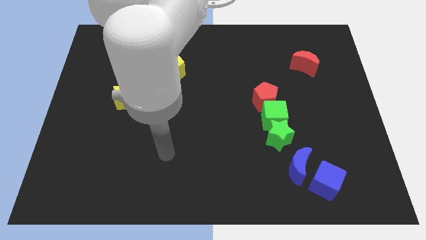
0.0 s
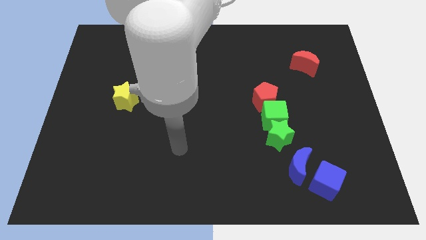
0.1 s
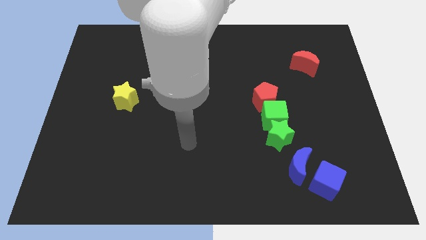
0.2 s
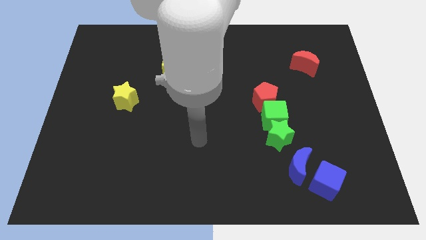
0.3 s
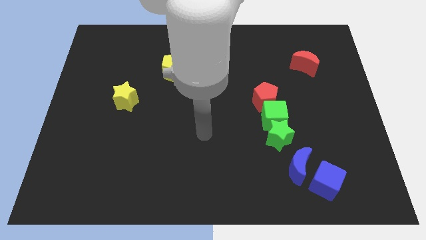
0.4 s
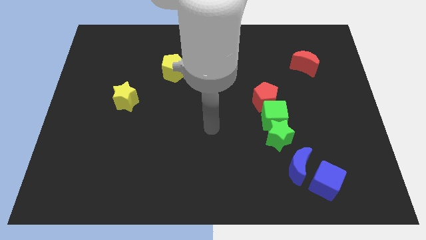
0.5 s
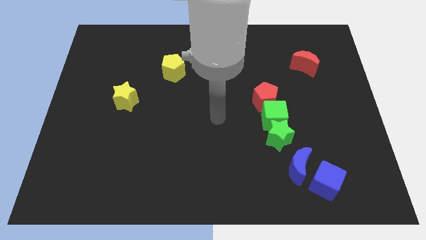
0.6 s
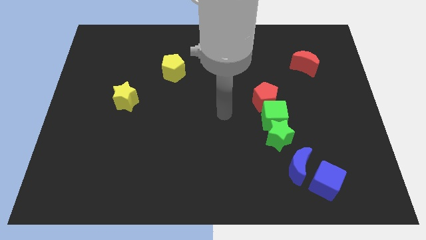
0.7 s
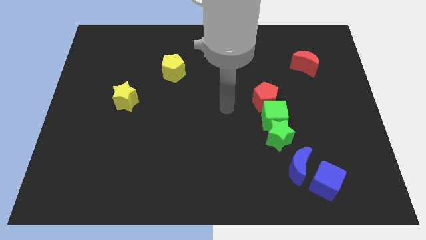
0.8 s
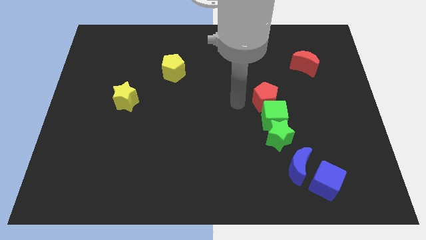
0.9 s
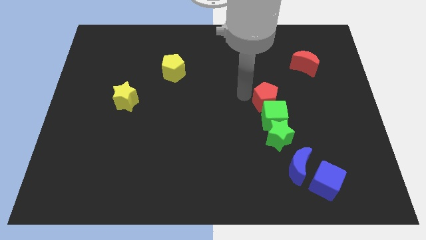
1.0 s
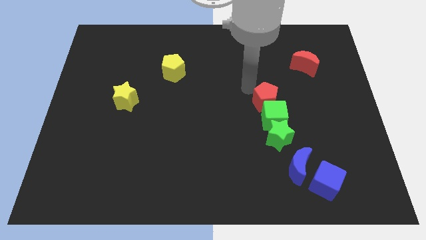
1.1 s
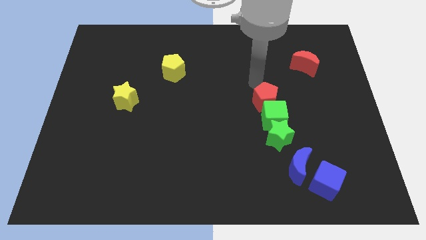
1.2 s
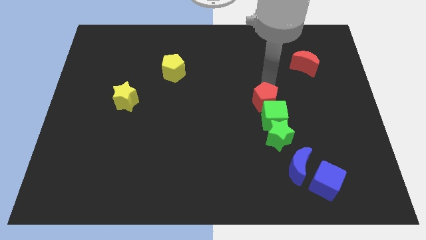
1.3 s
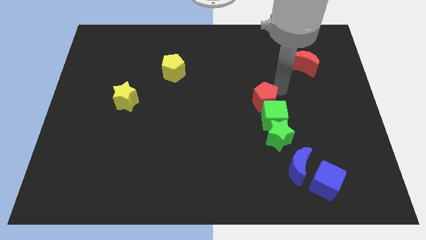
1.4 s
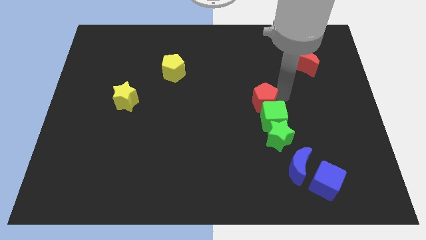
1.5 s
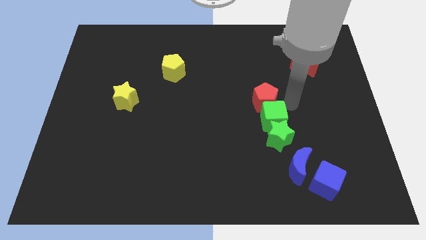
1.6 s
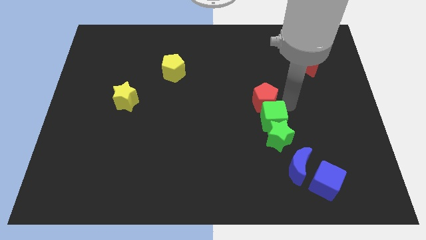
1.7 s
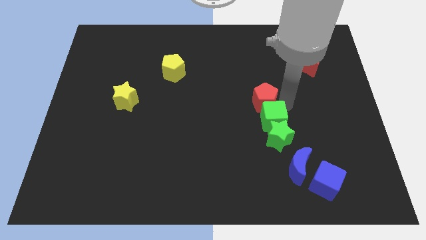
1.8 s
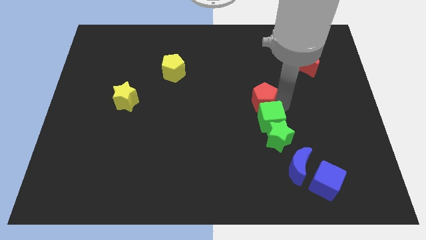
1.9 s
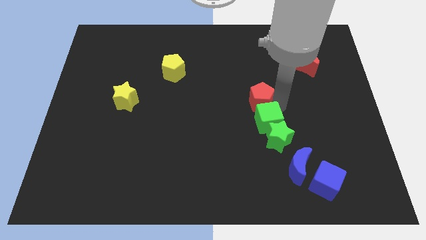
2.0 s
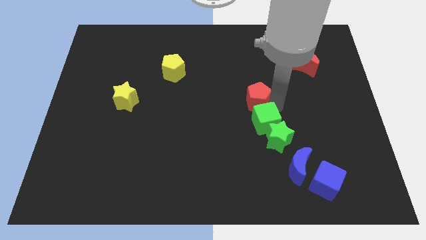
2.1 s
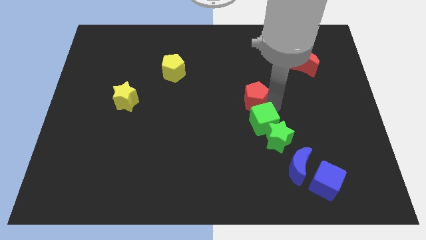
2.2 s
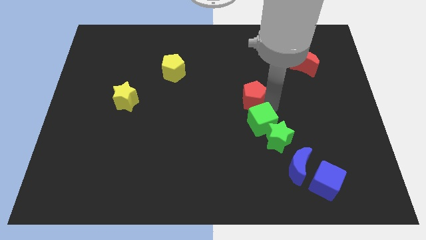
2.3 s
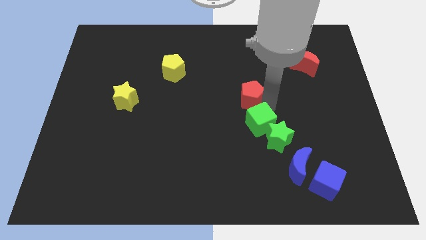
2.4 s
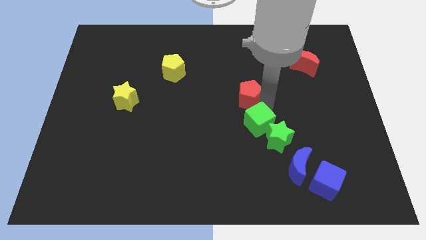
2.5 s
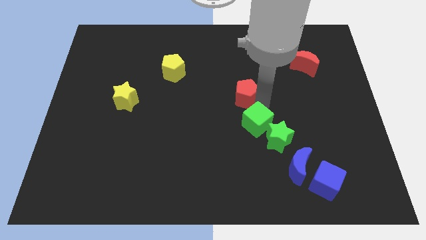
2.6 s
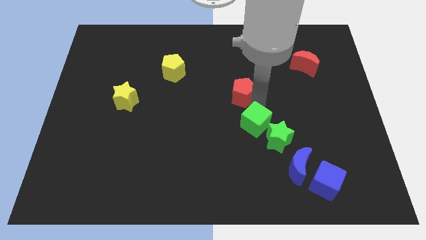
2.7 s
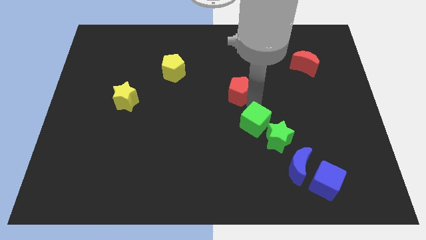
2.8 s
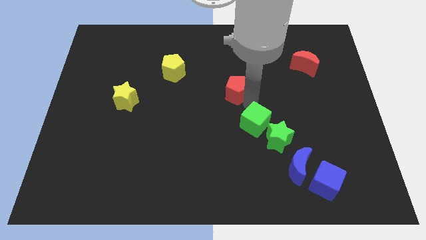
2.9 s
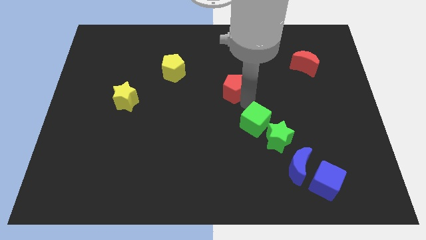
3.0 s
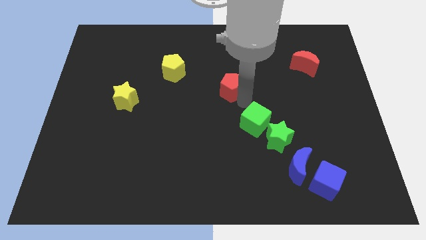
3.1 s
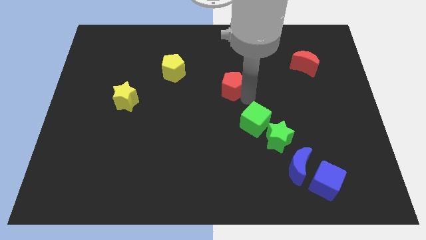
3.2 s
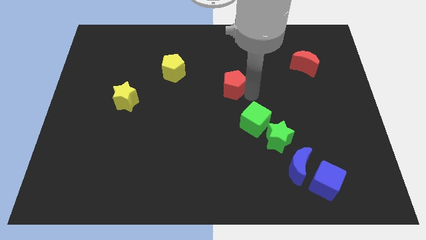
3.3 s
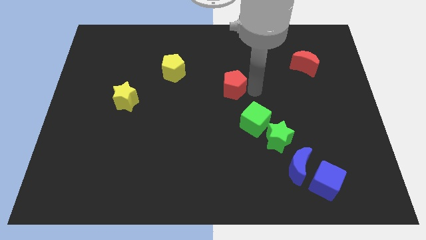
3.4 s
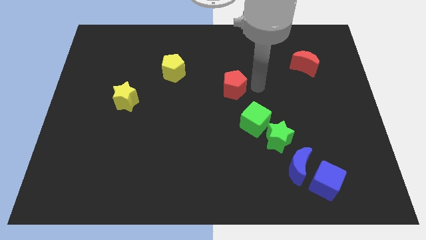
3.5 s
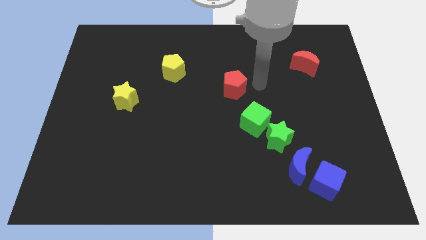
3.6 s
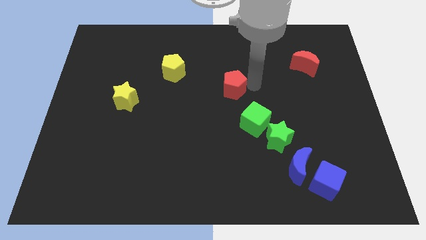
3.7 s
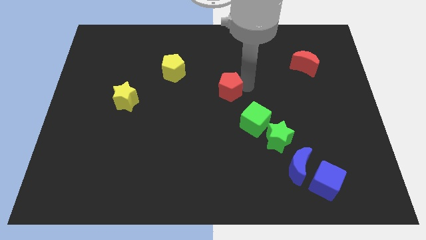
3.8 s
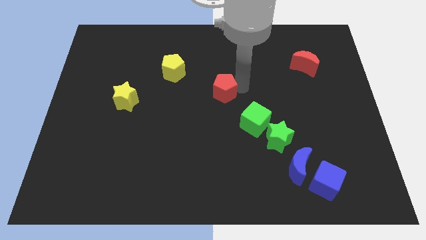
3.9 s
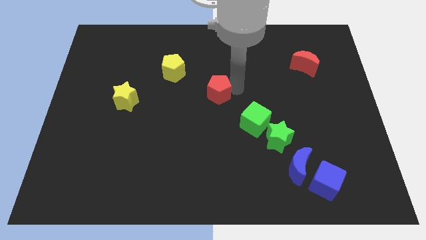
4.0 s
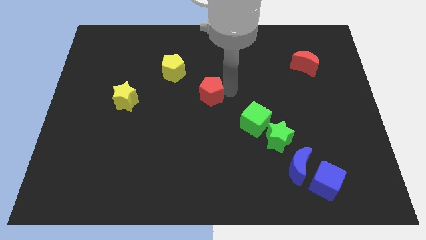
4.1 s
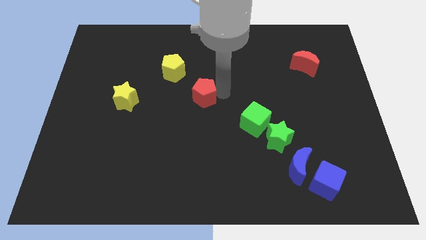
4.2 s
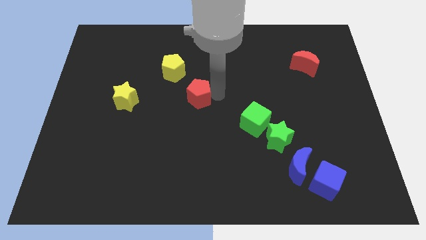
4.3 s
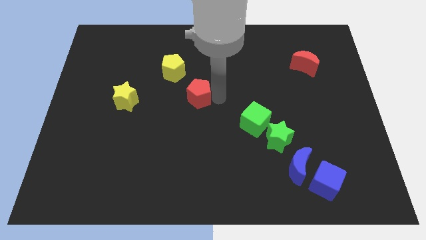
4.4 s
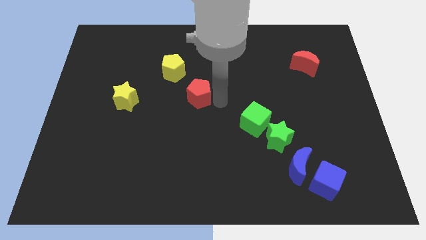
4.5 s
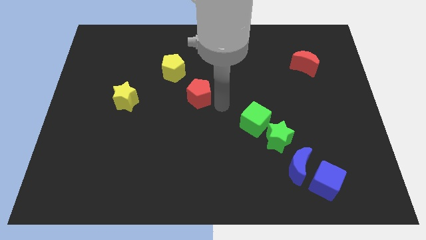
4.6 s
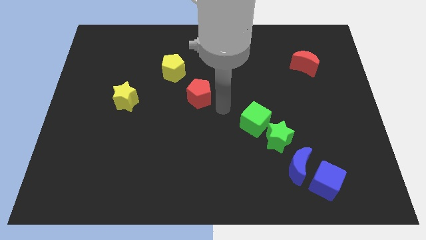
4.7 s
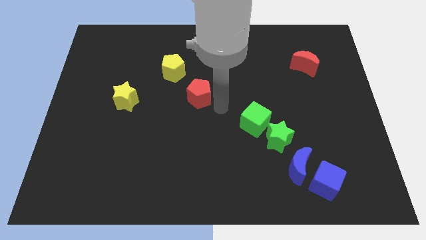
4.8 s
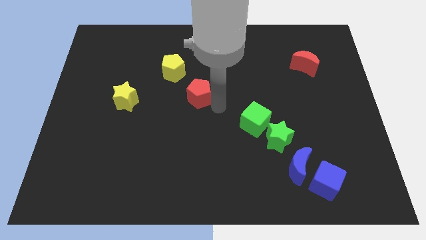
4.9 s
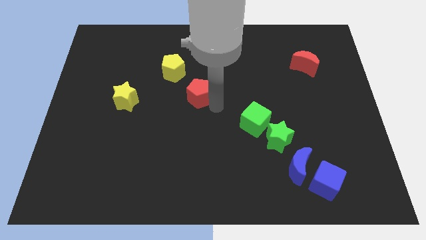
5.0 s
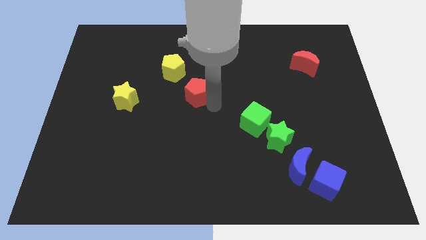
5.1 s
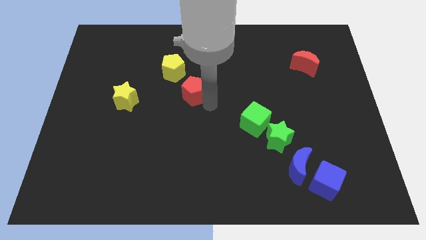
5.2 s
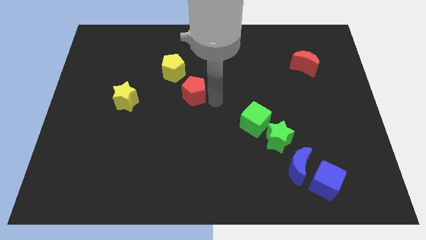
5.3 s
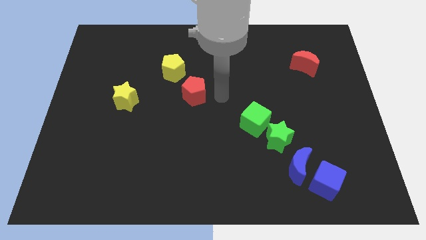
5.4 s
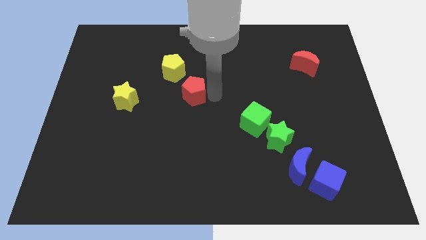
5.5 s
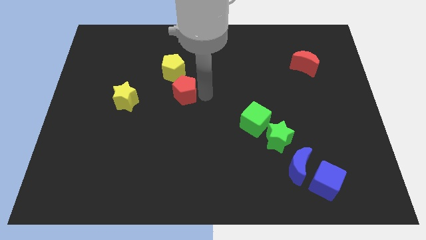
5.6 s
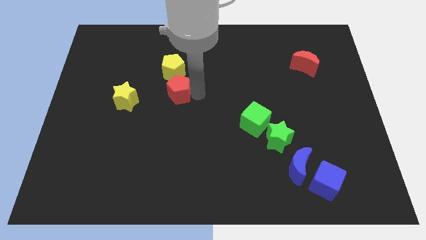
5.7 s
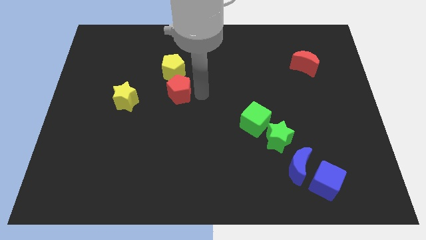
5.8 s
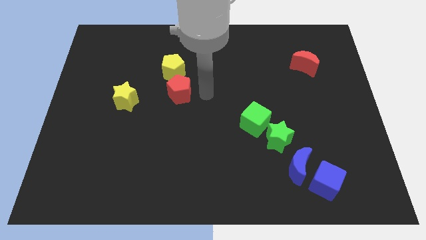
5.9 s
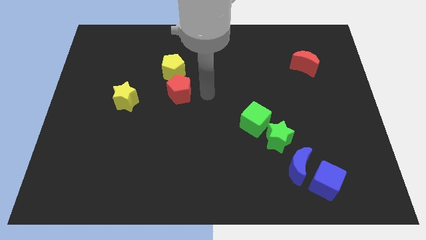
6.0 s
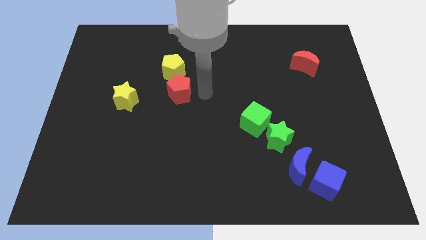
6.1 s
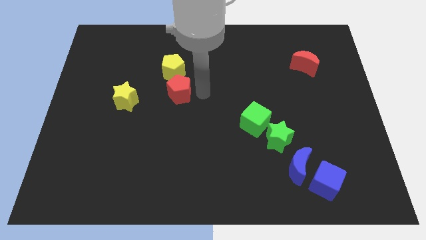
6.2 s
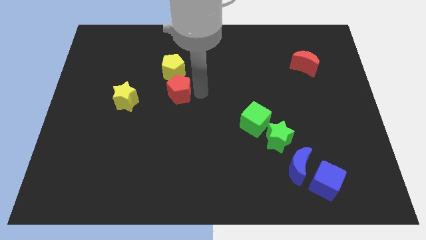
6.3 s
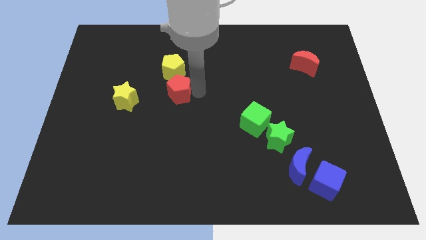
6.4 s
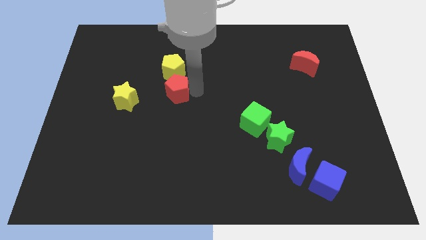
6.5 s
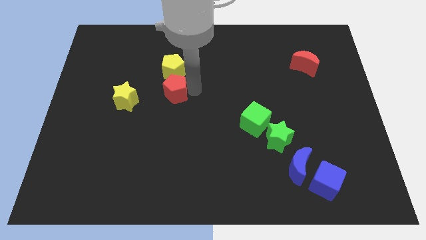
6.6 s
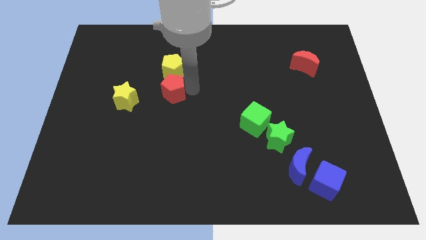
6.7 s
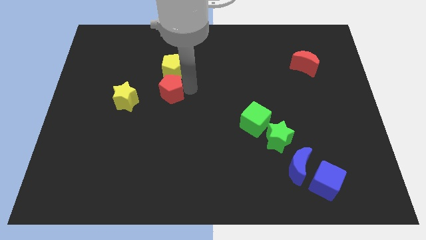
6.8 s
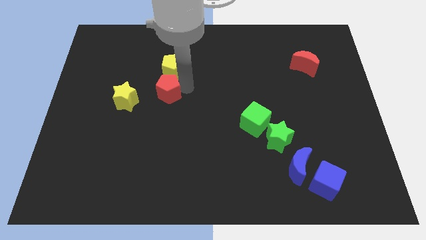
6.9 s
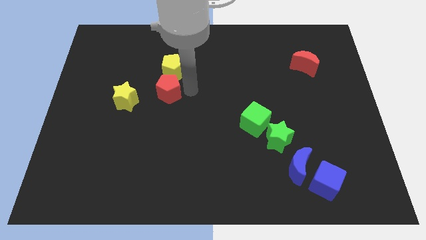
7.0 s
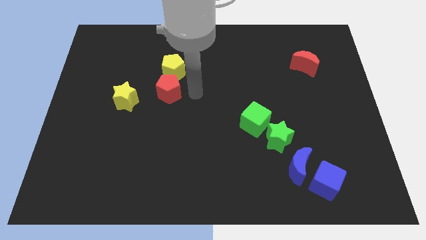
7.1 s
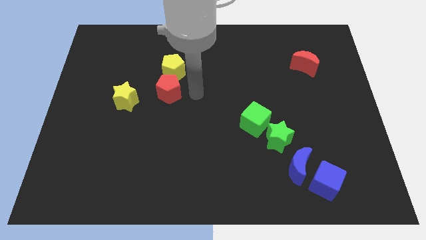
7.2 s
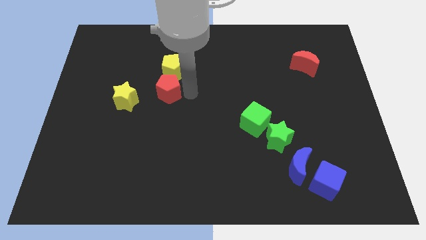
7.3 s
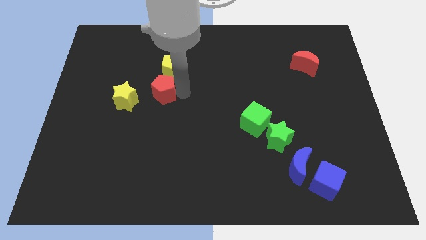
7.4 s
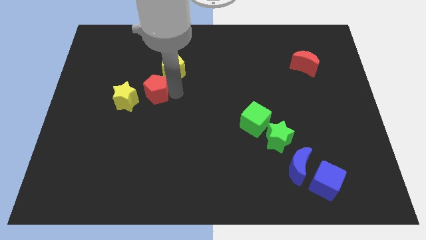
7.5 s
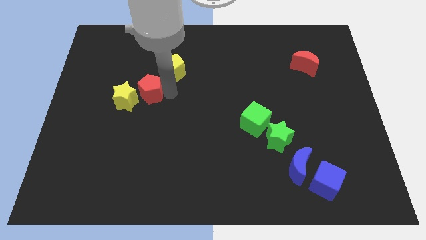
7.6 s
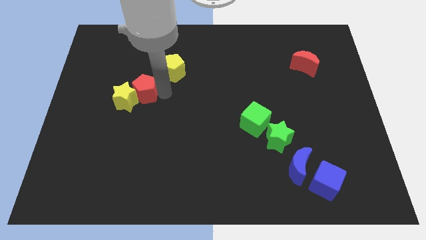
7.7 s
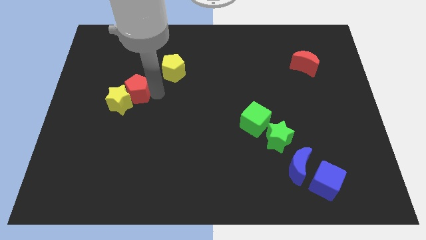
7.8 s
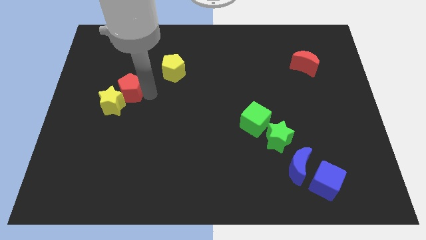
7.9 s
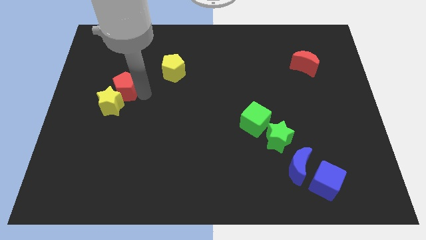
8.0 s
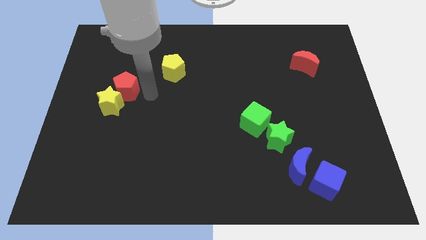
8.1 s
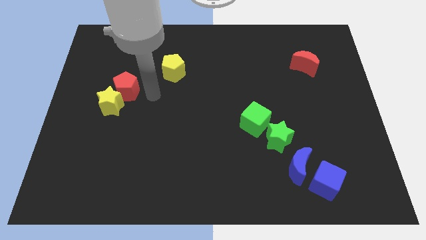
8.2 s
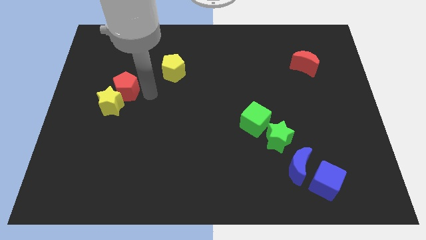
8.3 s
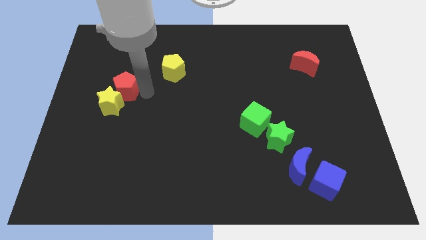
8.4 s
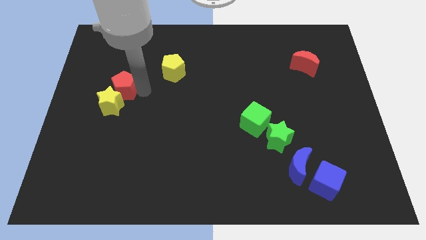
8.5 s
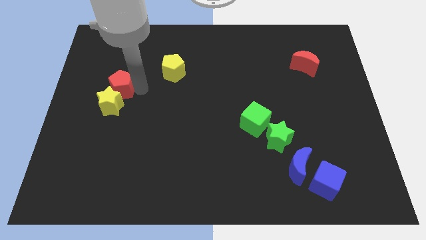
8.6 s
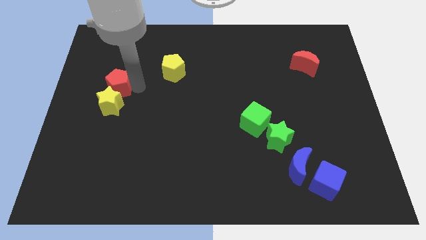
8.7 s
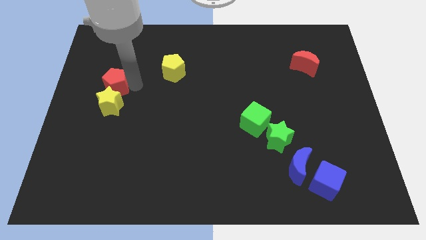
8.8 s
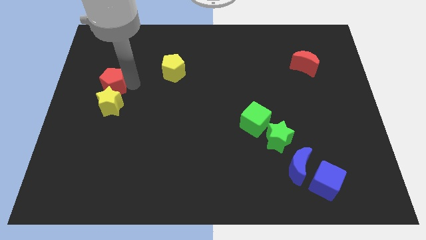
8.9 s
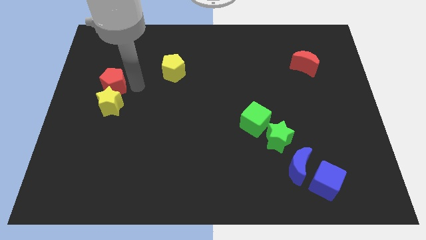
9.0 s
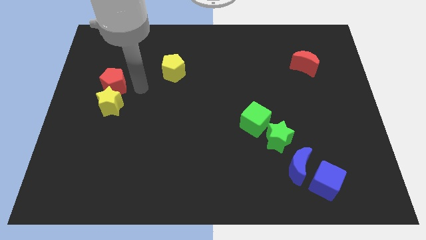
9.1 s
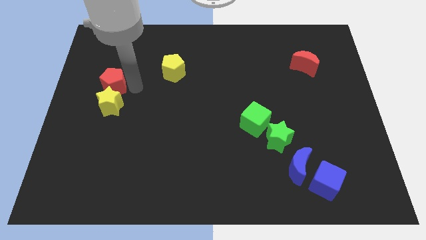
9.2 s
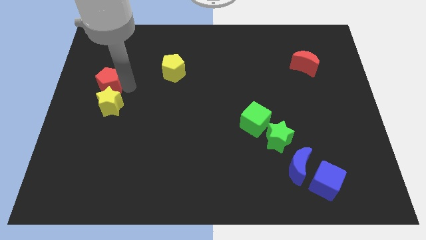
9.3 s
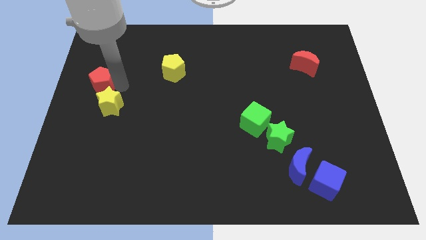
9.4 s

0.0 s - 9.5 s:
move the red pentagon to the left side of the board
